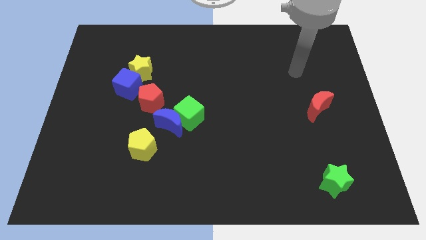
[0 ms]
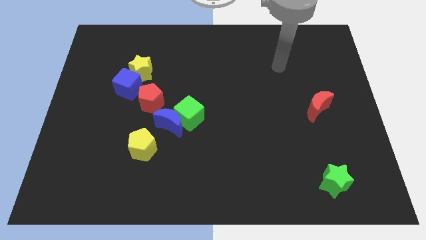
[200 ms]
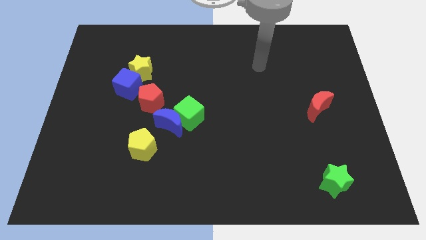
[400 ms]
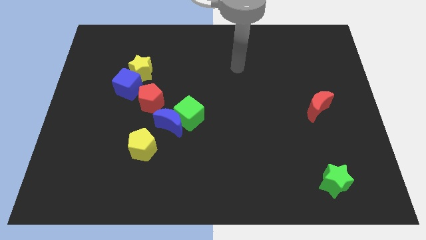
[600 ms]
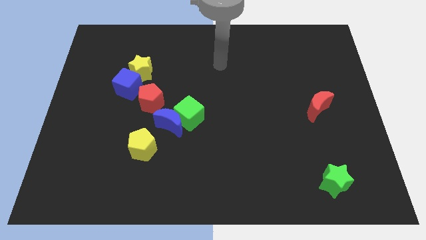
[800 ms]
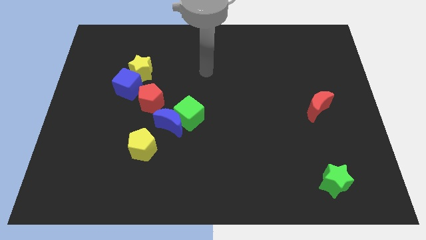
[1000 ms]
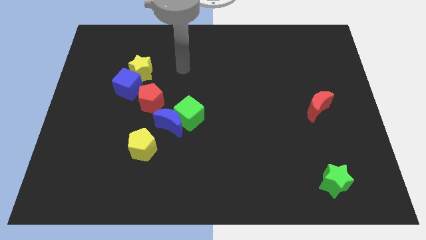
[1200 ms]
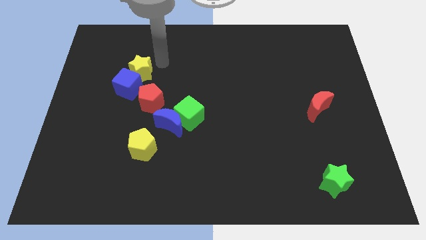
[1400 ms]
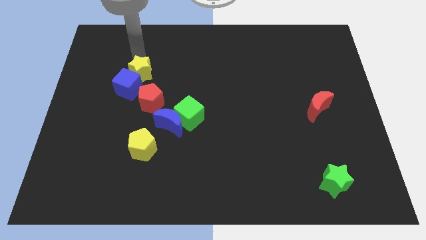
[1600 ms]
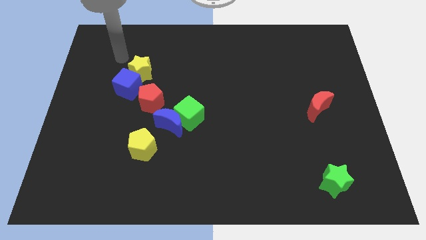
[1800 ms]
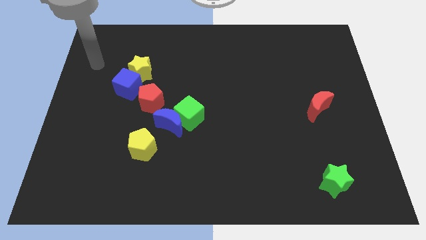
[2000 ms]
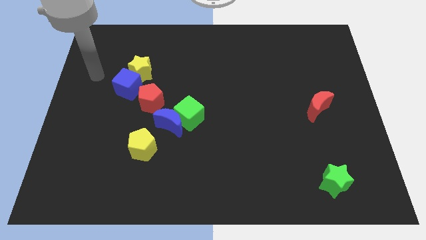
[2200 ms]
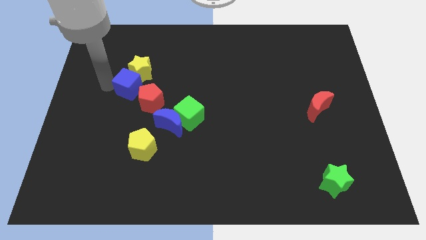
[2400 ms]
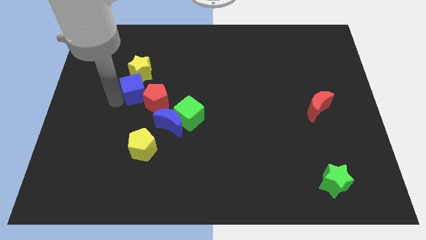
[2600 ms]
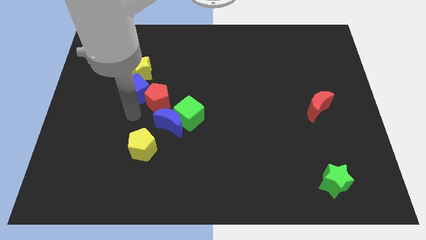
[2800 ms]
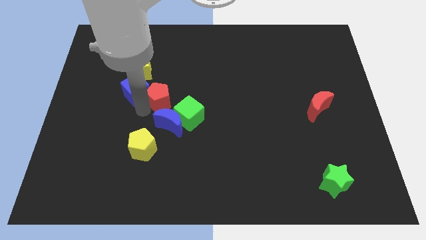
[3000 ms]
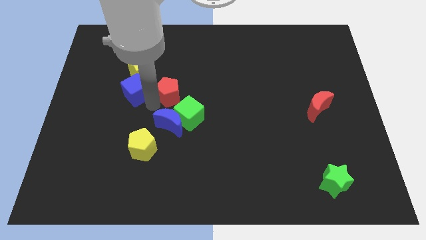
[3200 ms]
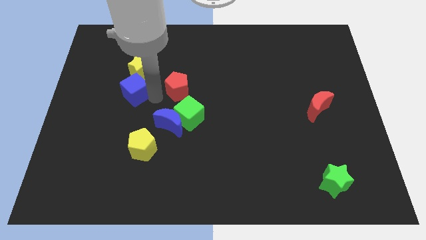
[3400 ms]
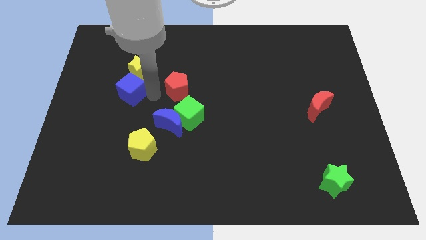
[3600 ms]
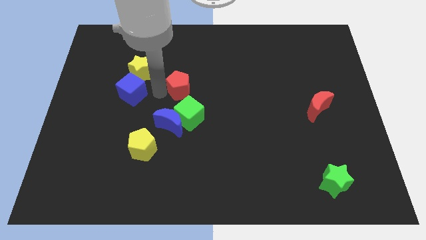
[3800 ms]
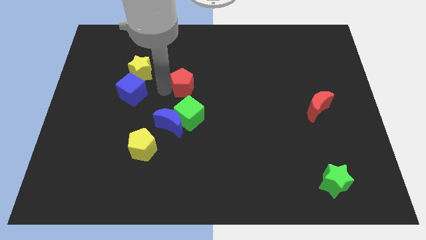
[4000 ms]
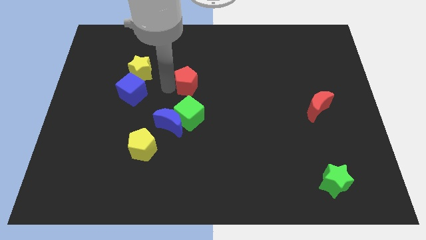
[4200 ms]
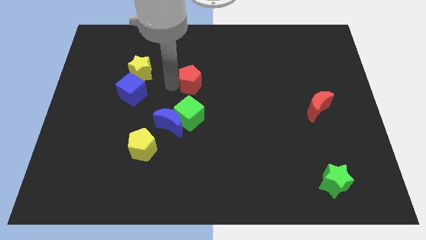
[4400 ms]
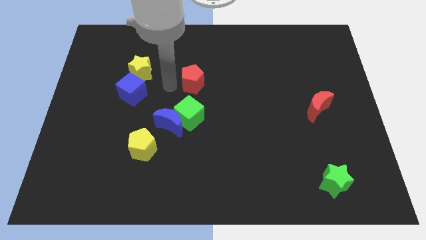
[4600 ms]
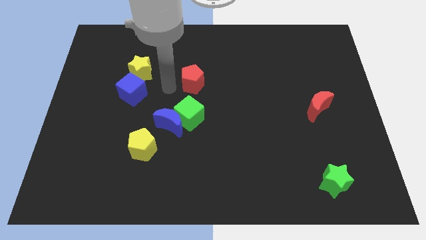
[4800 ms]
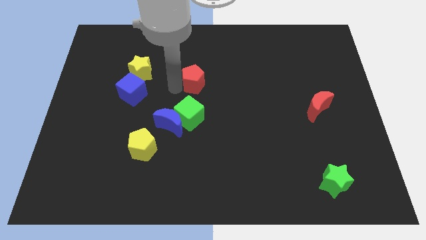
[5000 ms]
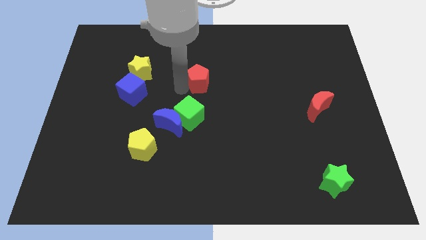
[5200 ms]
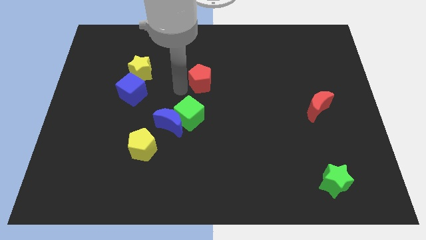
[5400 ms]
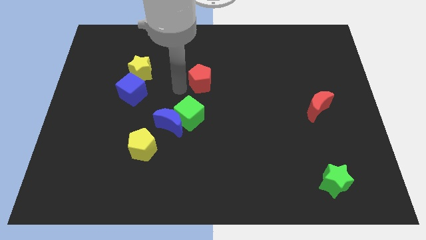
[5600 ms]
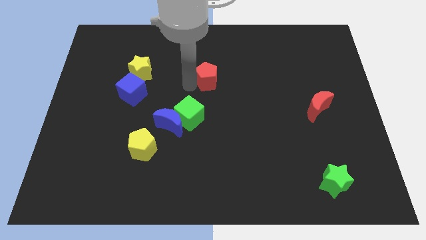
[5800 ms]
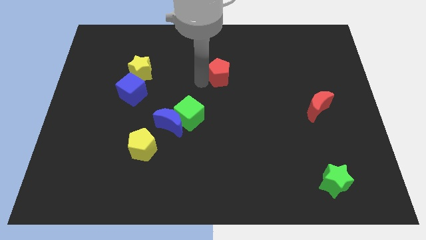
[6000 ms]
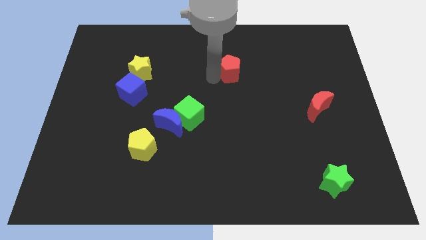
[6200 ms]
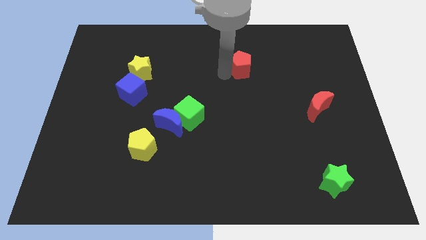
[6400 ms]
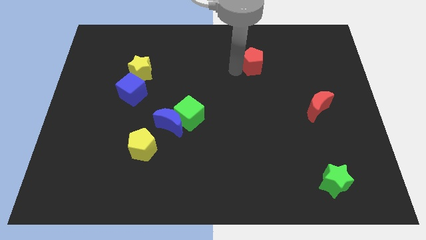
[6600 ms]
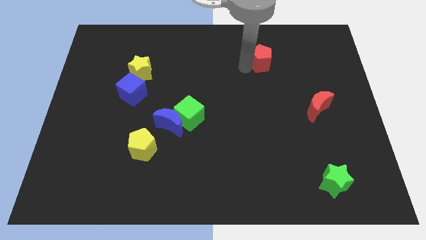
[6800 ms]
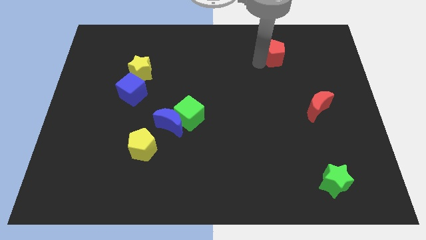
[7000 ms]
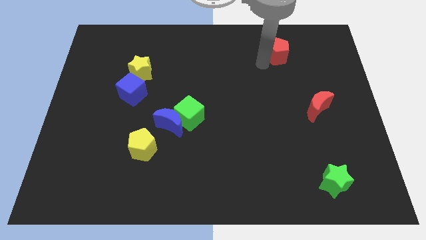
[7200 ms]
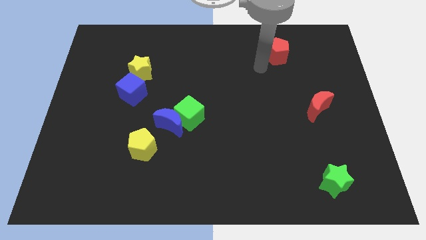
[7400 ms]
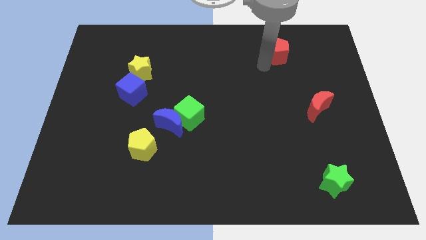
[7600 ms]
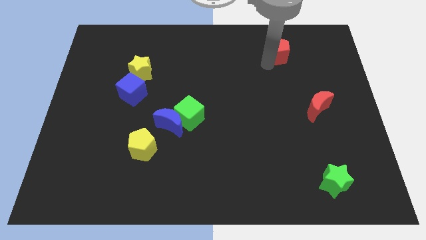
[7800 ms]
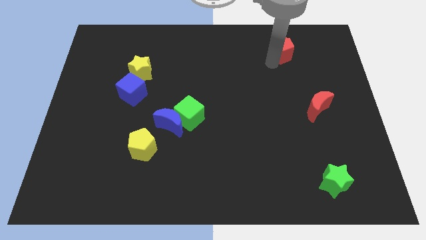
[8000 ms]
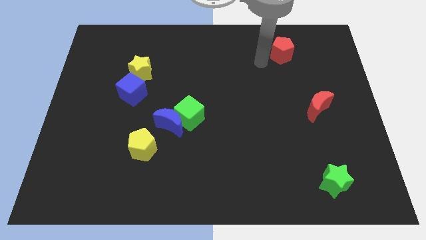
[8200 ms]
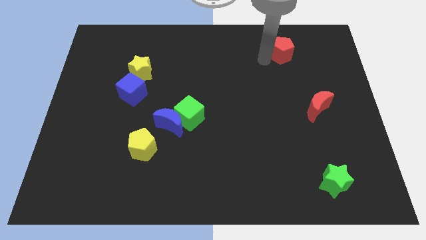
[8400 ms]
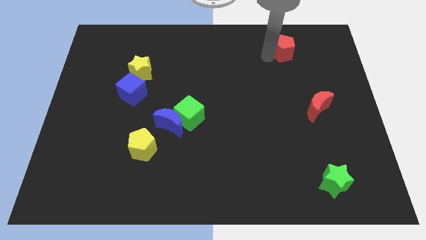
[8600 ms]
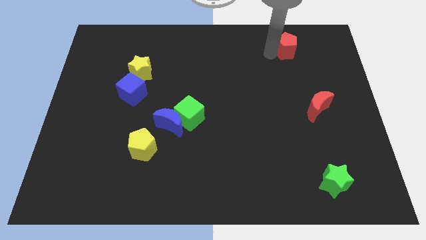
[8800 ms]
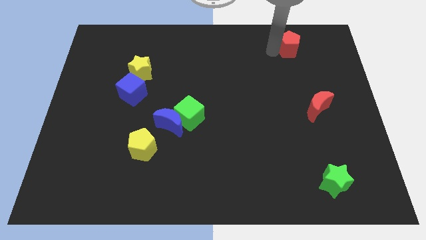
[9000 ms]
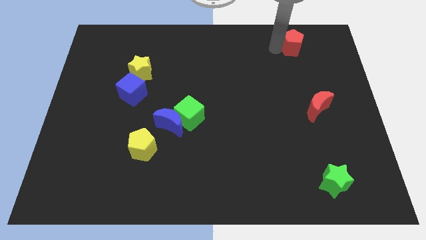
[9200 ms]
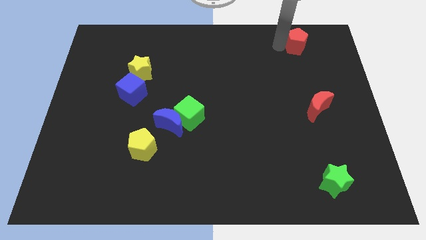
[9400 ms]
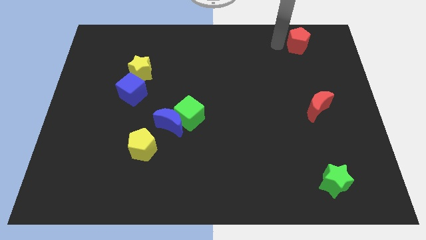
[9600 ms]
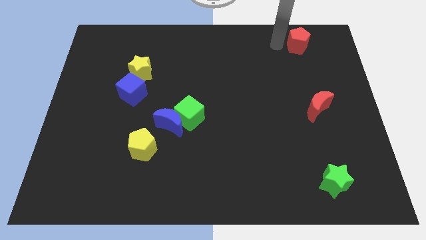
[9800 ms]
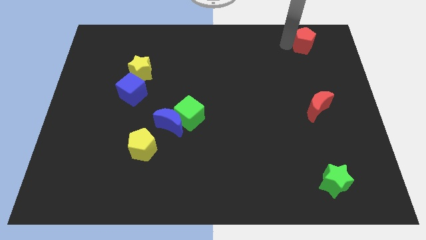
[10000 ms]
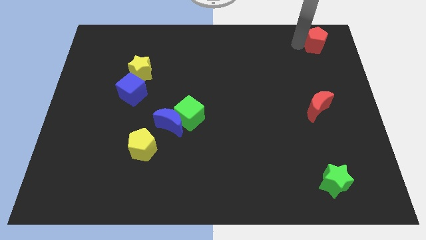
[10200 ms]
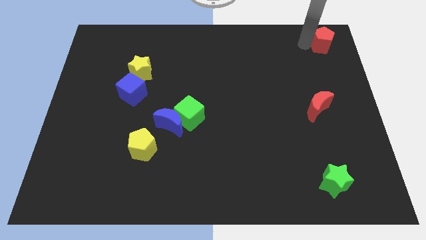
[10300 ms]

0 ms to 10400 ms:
put the red pentagon to the top right corner

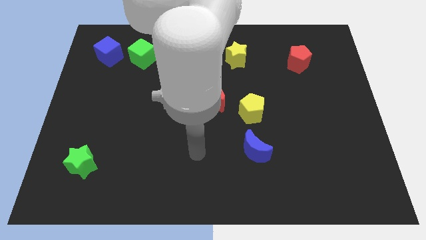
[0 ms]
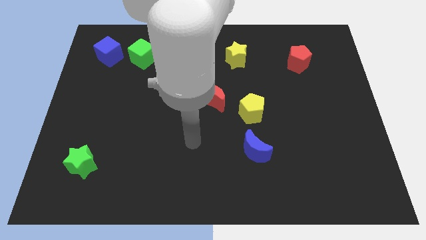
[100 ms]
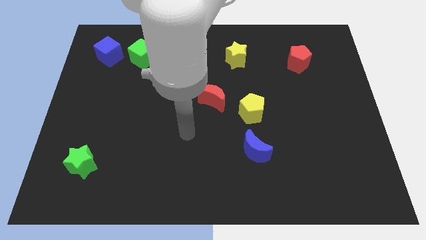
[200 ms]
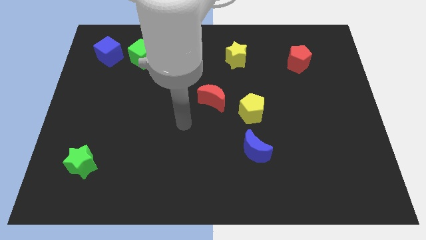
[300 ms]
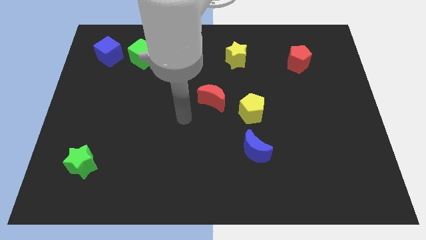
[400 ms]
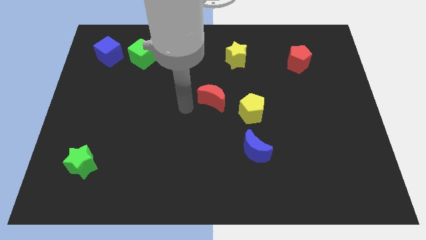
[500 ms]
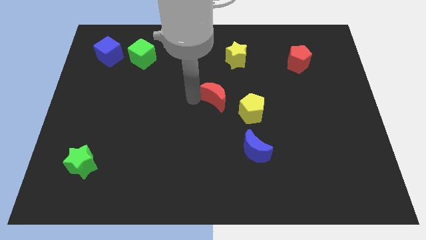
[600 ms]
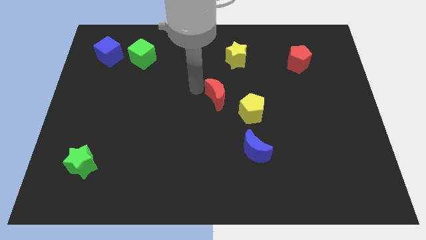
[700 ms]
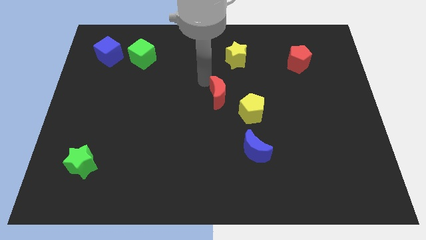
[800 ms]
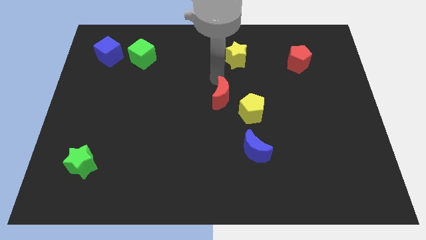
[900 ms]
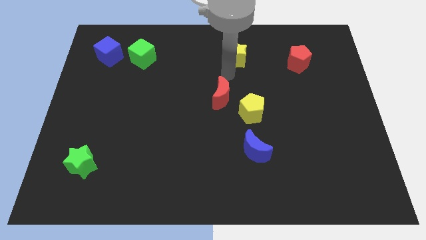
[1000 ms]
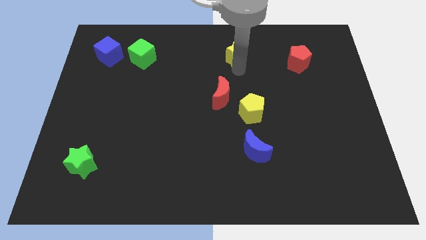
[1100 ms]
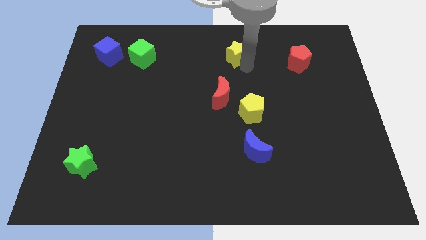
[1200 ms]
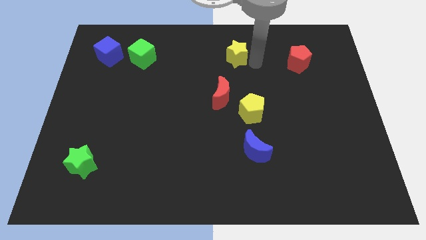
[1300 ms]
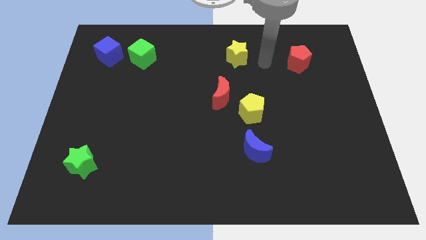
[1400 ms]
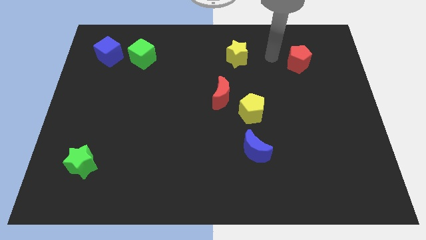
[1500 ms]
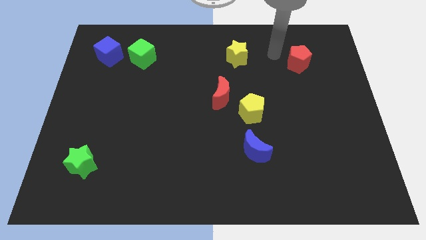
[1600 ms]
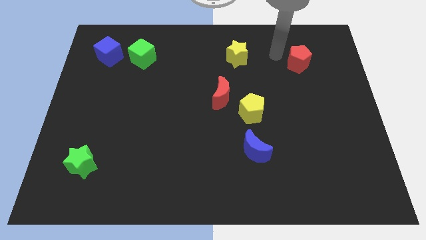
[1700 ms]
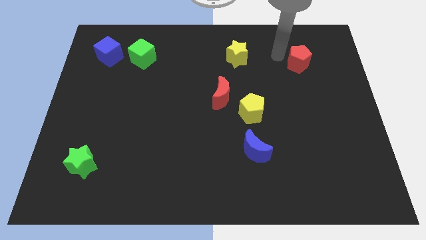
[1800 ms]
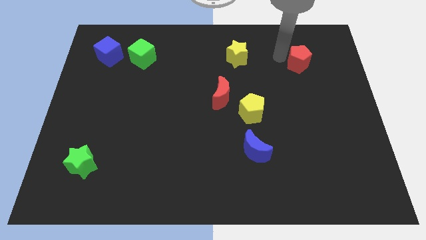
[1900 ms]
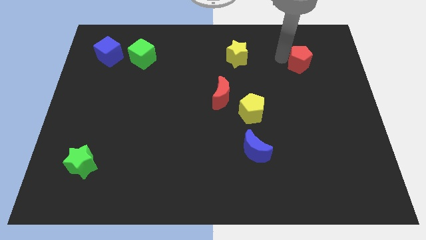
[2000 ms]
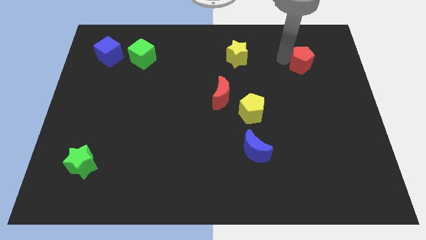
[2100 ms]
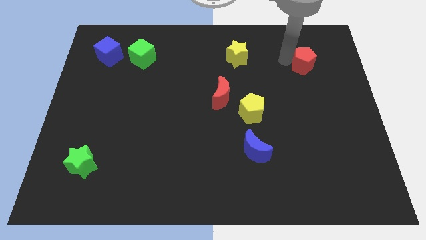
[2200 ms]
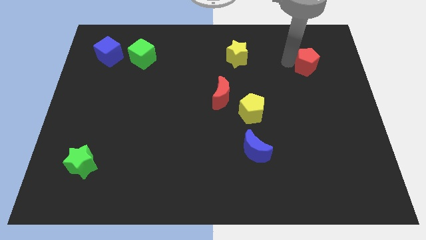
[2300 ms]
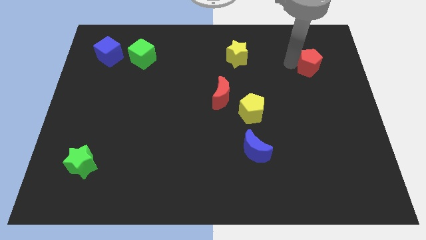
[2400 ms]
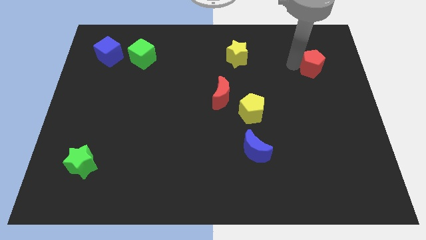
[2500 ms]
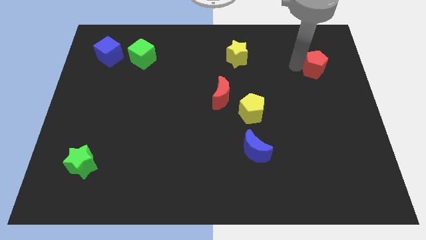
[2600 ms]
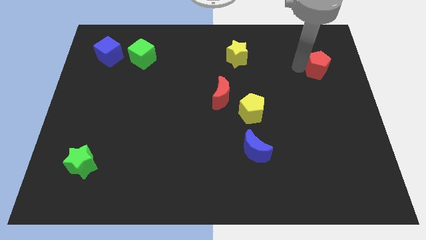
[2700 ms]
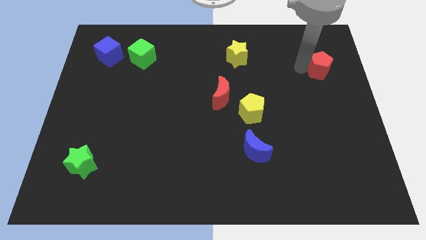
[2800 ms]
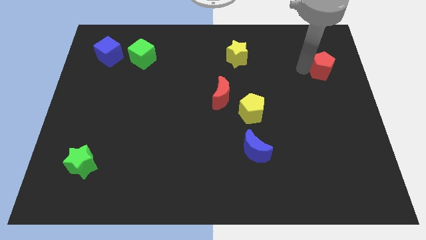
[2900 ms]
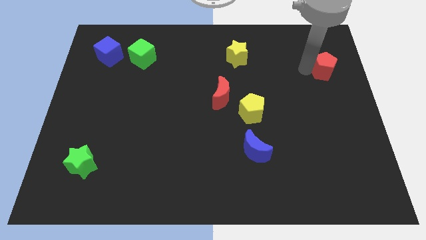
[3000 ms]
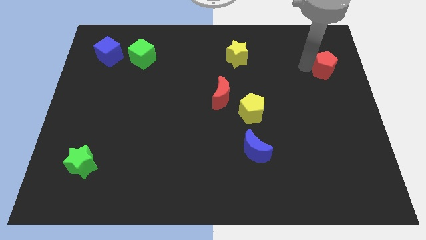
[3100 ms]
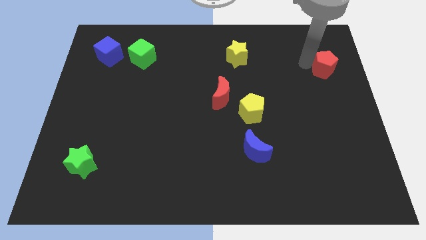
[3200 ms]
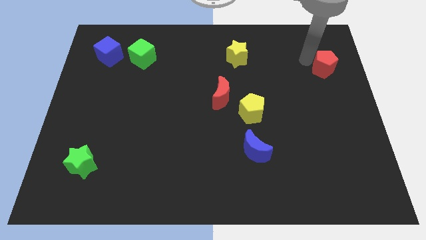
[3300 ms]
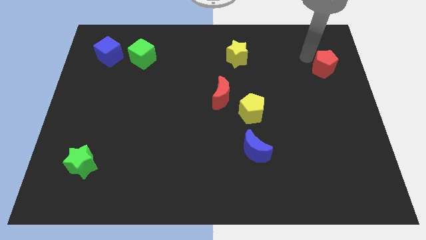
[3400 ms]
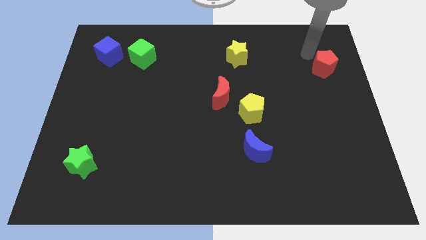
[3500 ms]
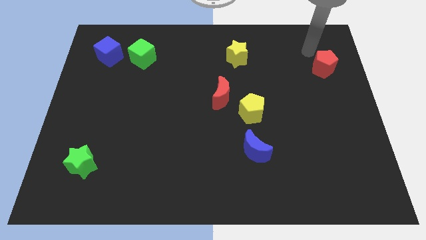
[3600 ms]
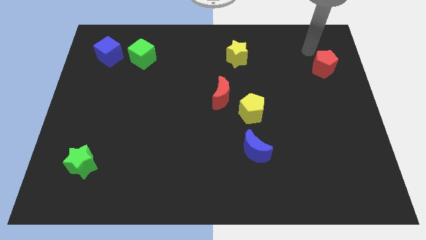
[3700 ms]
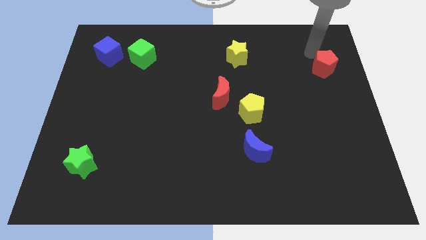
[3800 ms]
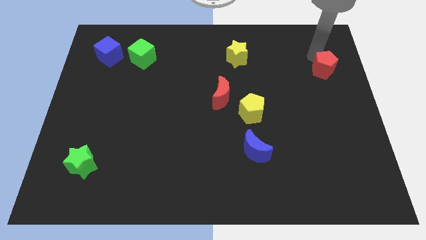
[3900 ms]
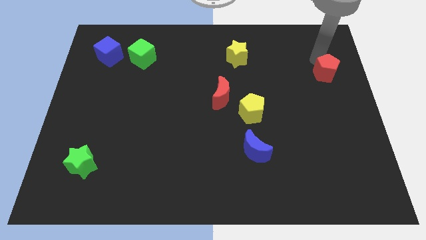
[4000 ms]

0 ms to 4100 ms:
put the red pentagon to the right side
